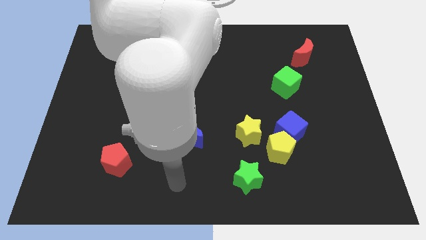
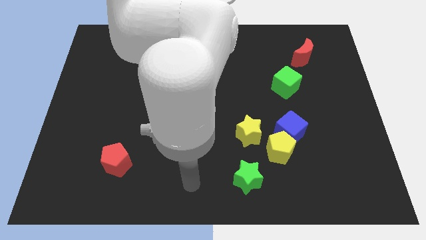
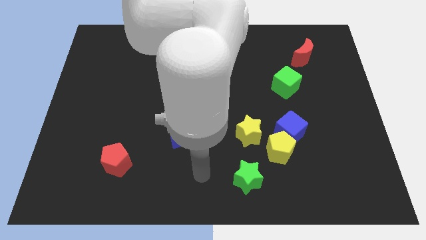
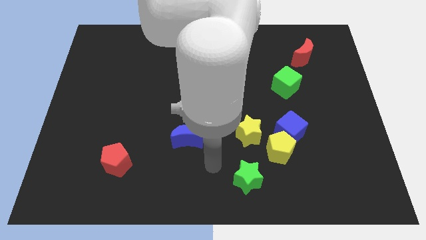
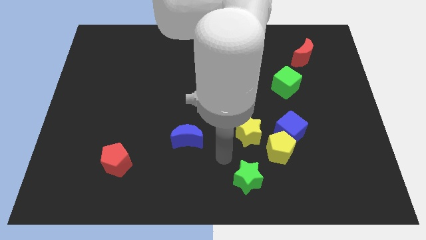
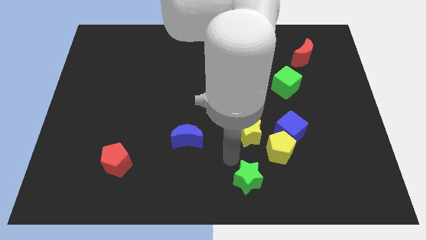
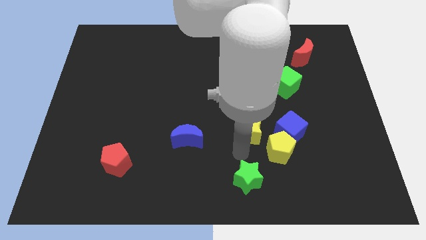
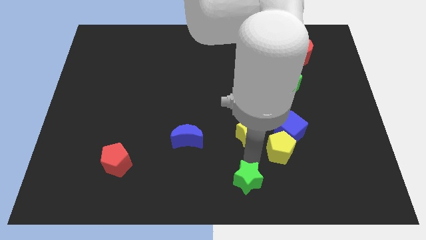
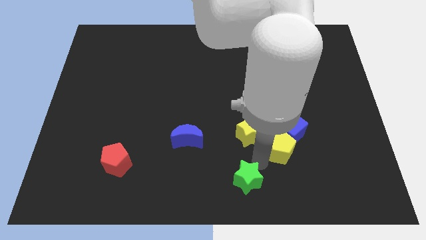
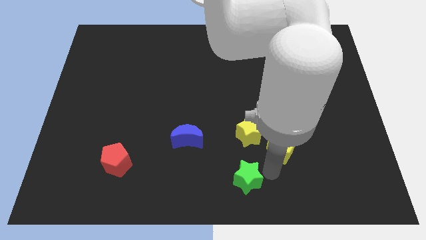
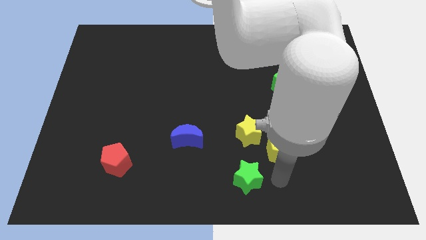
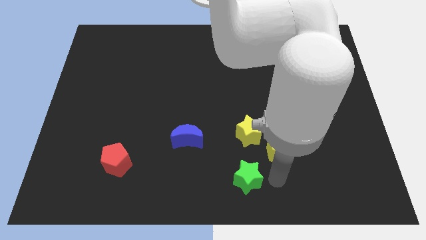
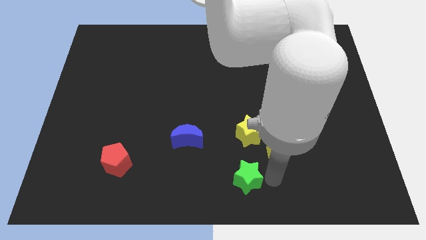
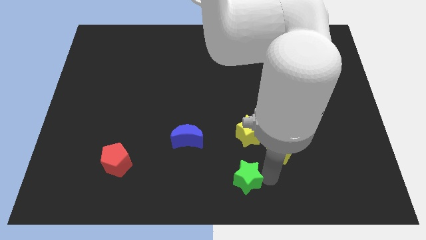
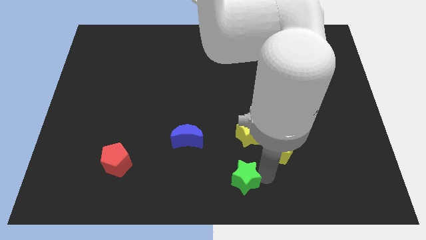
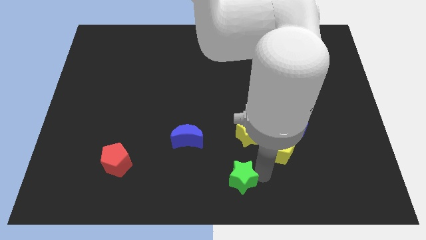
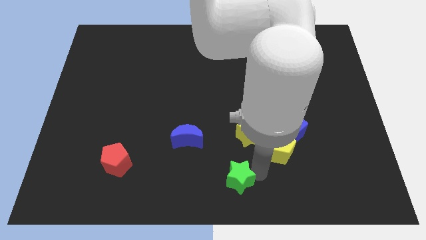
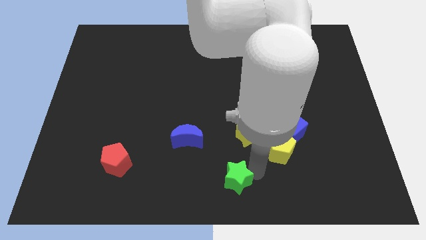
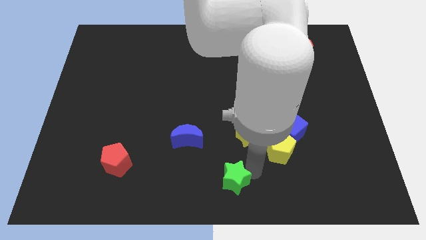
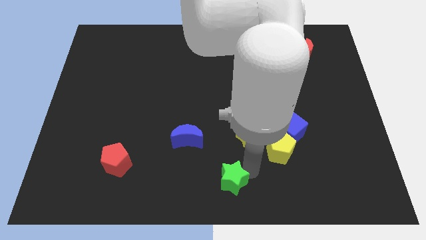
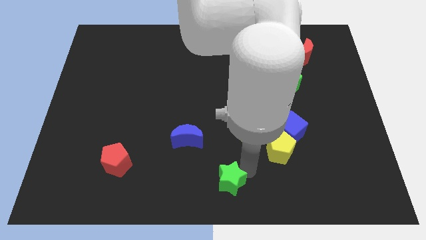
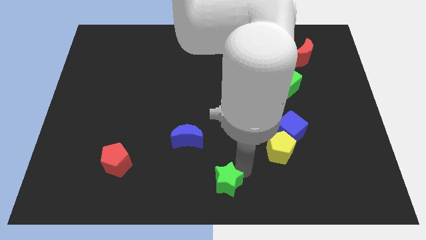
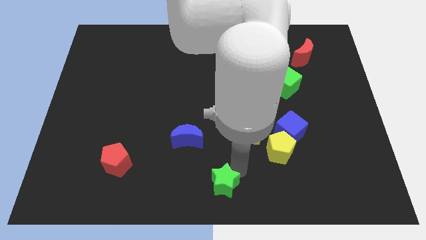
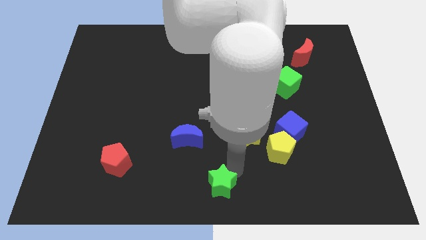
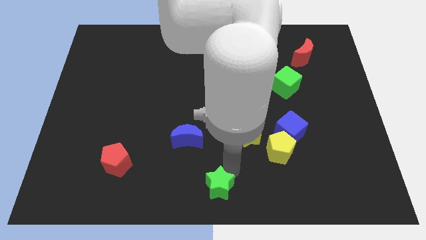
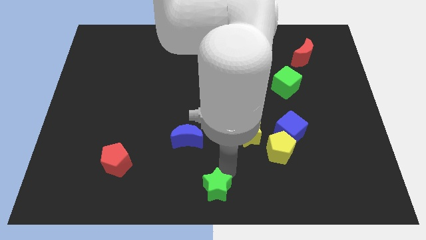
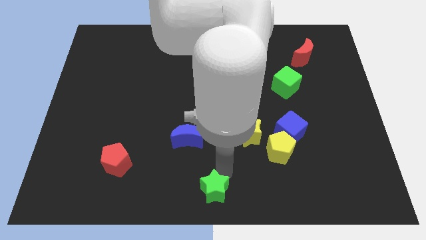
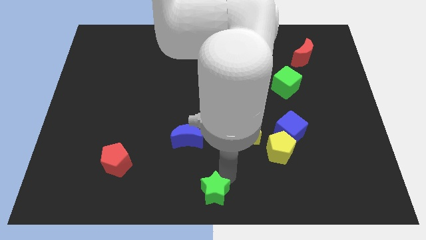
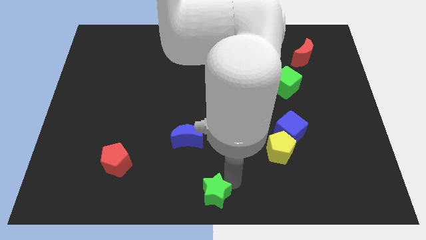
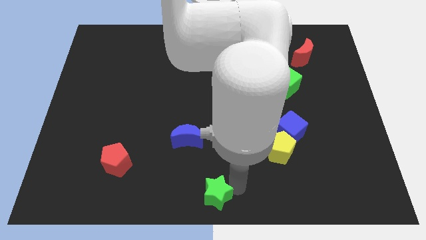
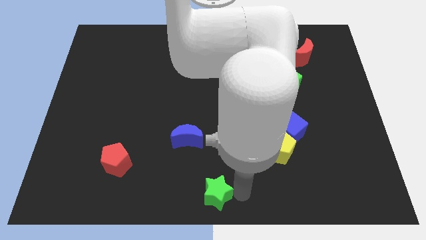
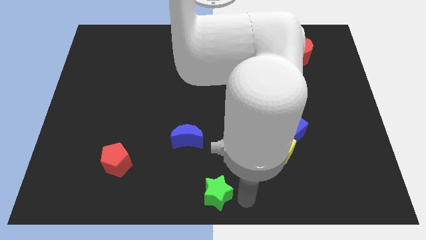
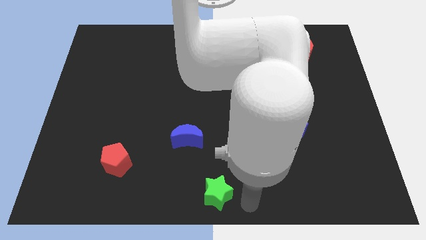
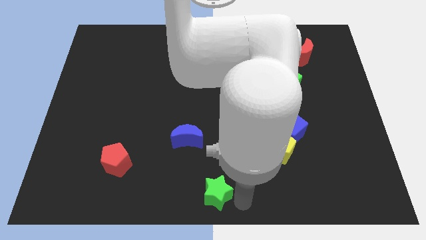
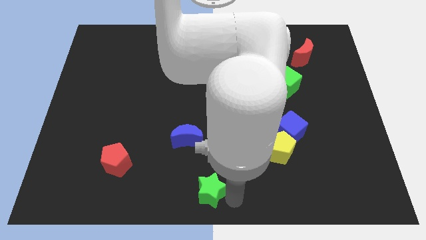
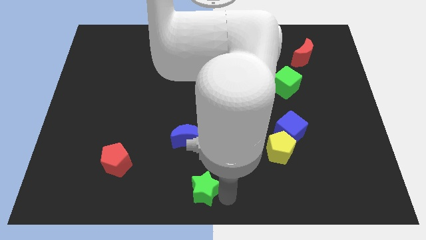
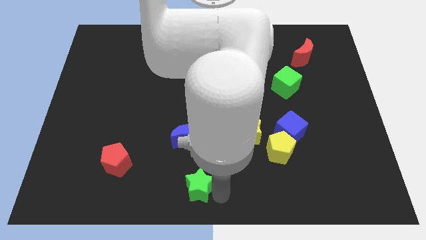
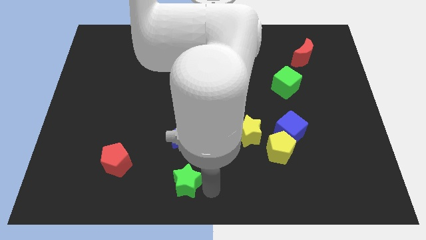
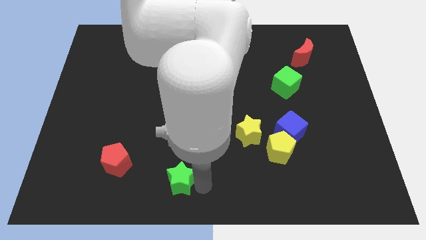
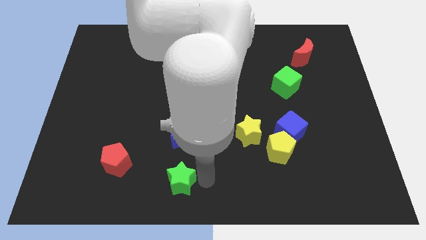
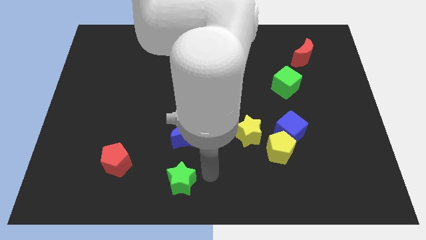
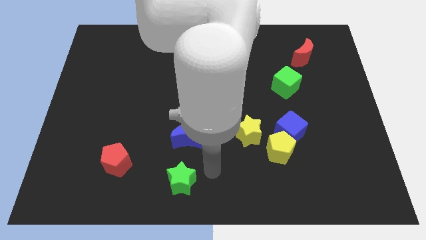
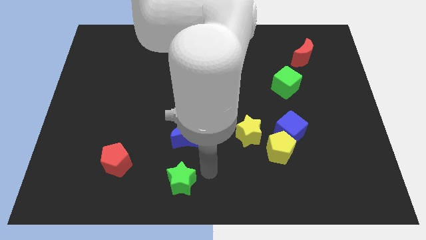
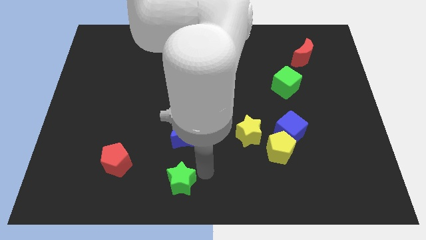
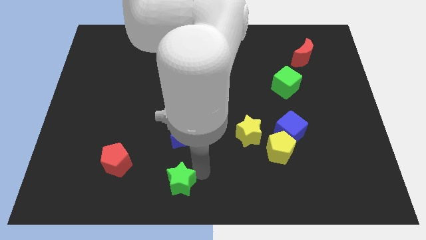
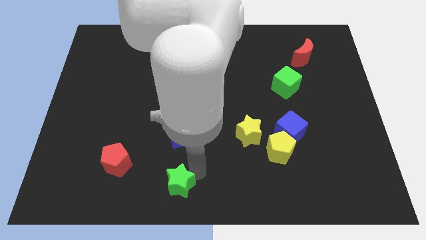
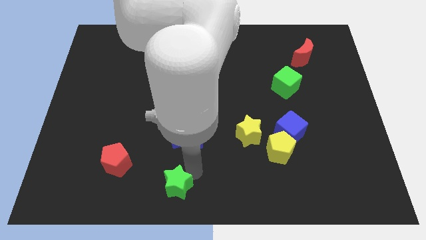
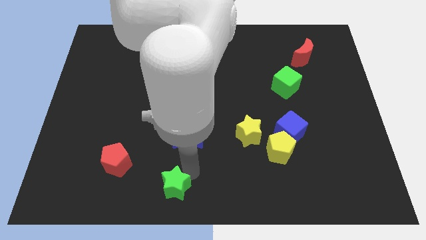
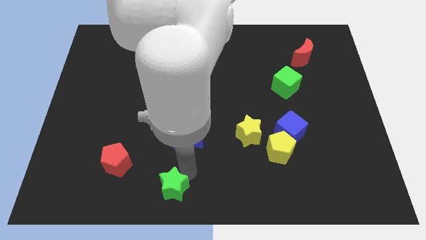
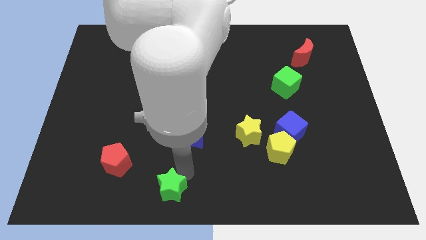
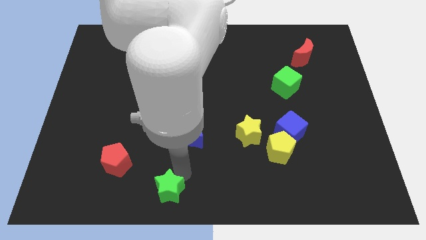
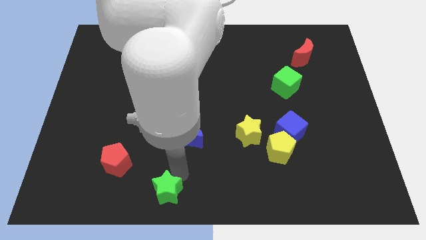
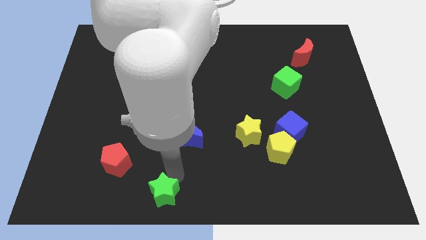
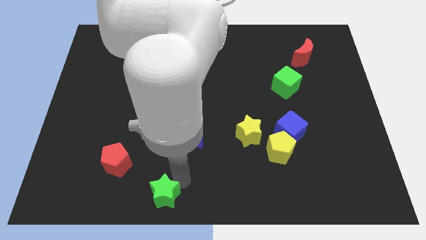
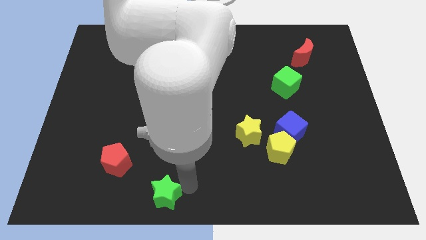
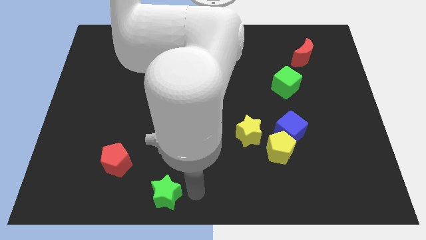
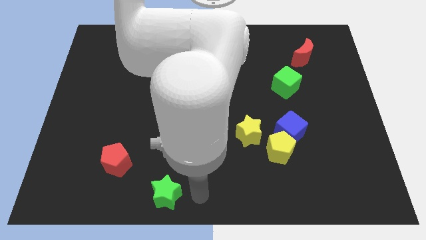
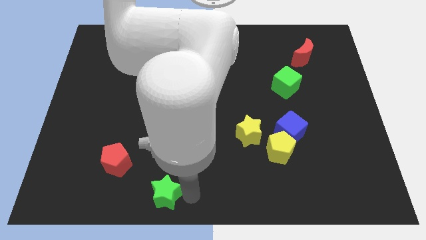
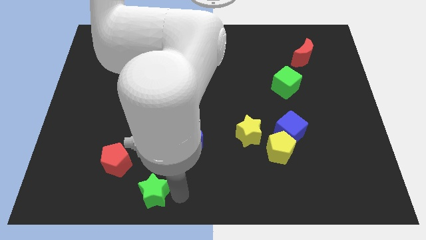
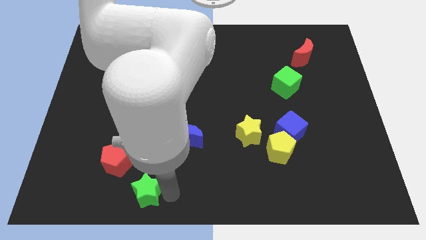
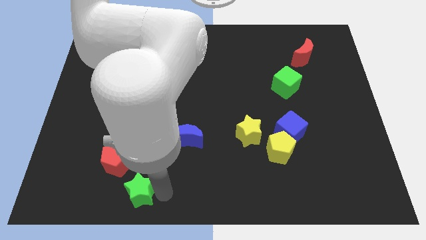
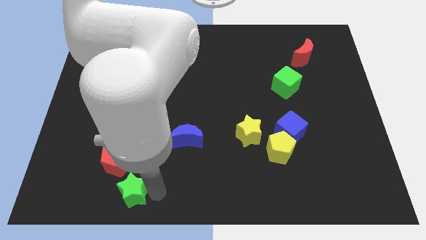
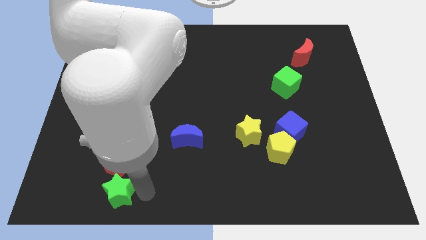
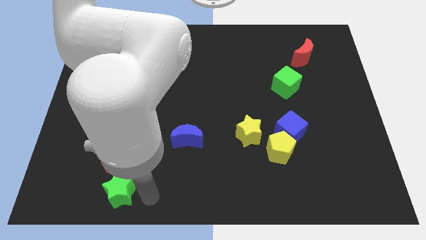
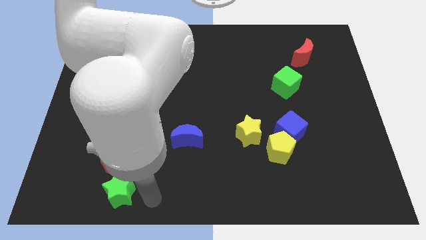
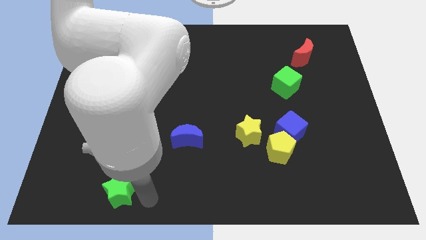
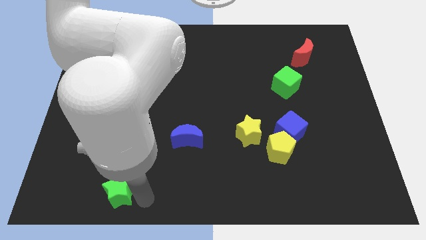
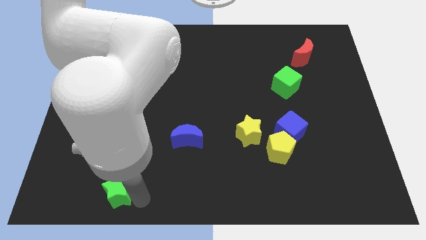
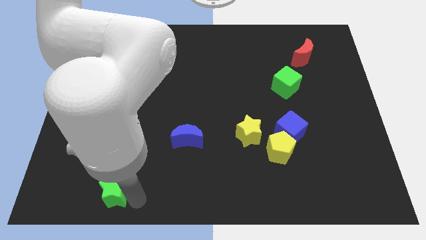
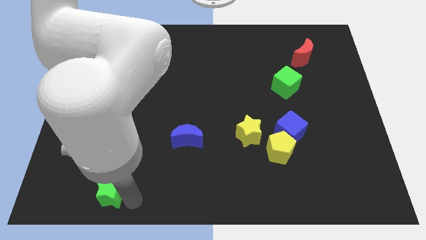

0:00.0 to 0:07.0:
slide the green star to the bottom left of the red pentagon
